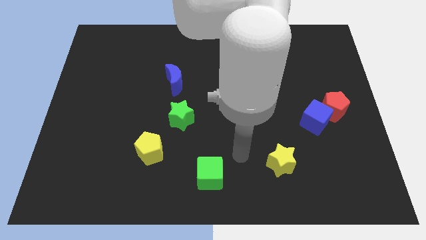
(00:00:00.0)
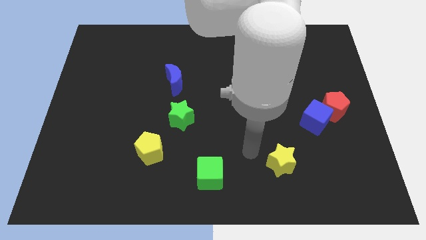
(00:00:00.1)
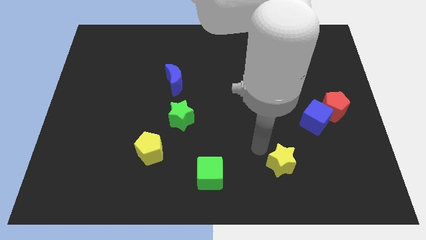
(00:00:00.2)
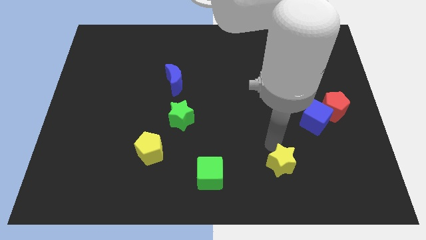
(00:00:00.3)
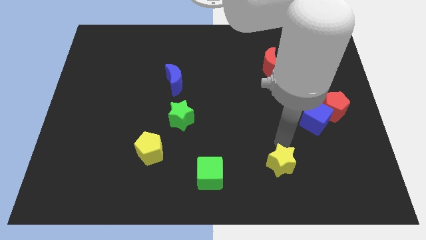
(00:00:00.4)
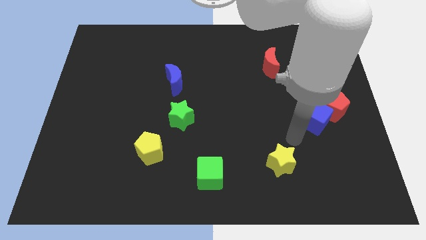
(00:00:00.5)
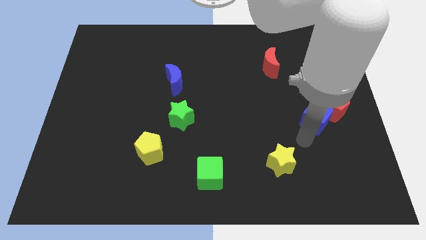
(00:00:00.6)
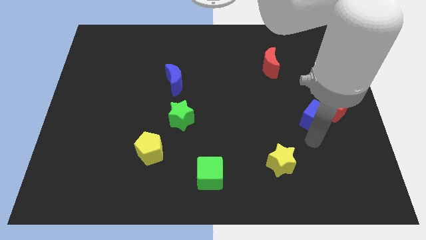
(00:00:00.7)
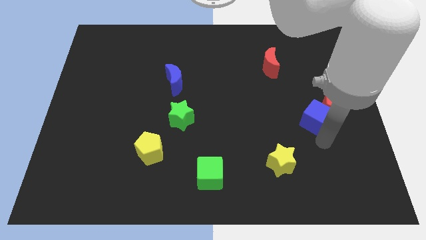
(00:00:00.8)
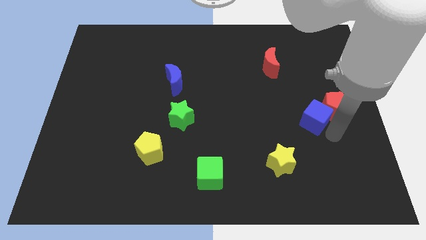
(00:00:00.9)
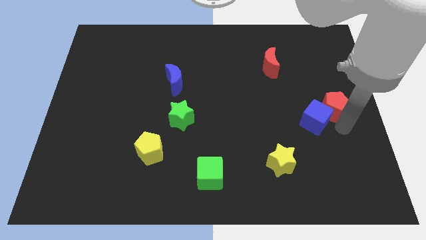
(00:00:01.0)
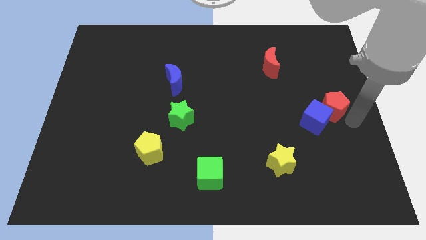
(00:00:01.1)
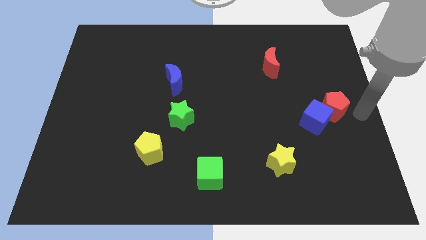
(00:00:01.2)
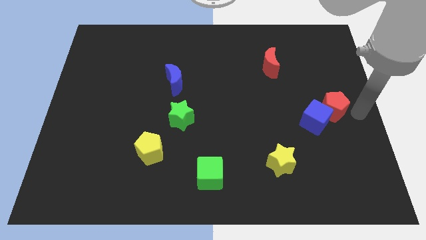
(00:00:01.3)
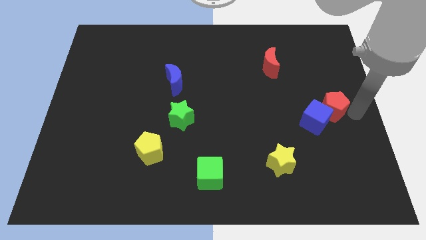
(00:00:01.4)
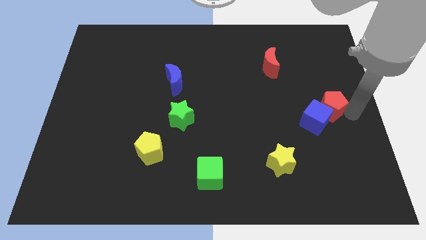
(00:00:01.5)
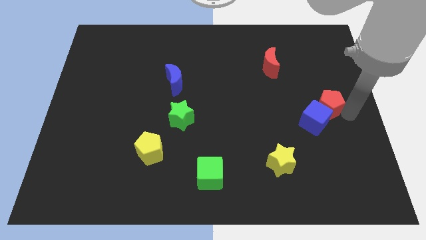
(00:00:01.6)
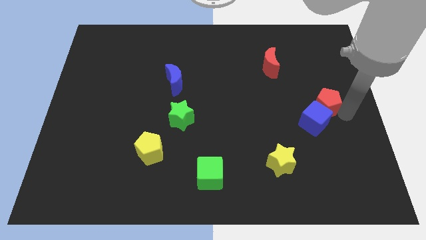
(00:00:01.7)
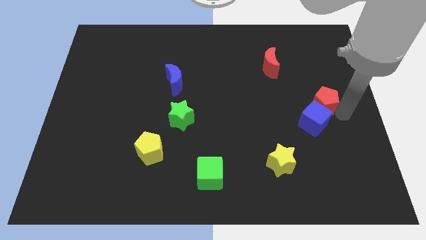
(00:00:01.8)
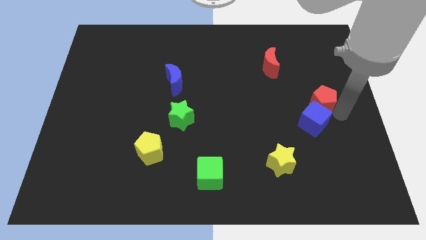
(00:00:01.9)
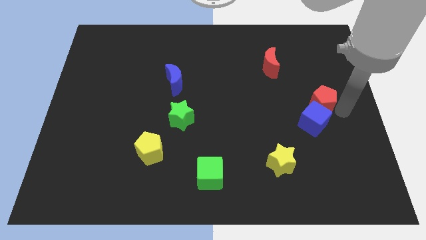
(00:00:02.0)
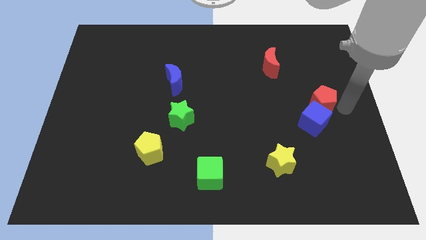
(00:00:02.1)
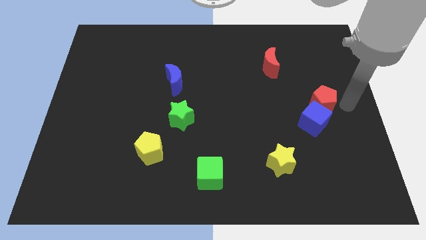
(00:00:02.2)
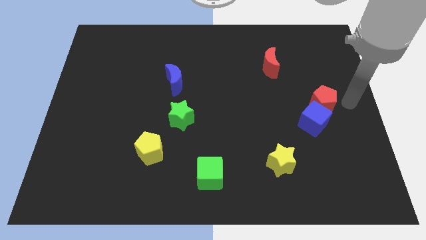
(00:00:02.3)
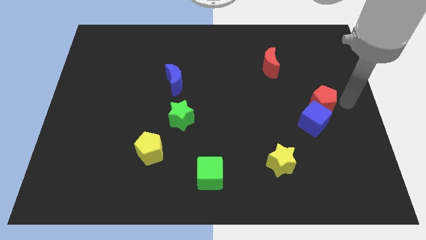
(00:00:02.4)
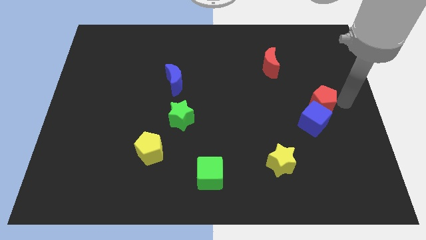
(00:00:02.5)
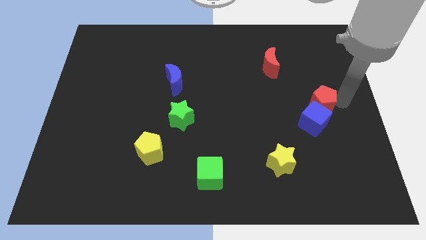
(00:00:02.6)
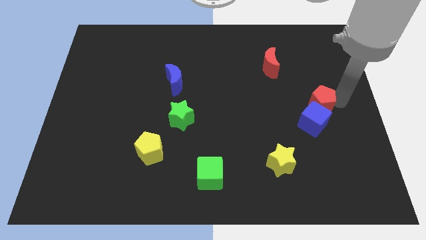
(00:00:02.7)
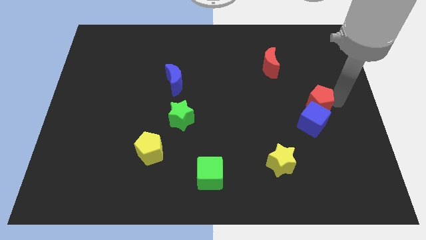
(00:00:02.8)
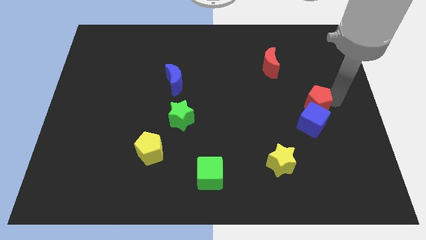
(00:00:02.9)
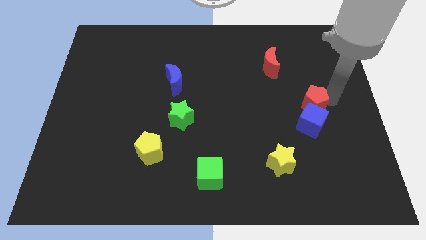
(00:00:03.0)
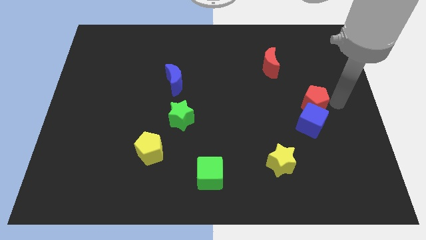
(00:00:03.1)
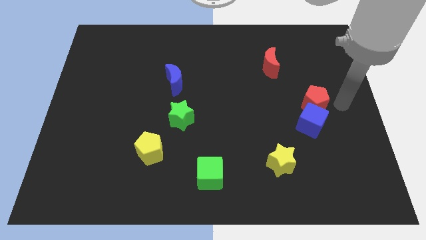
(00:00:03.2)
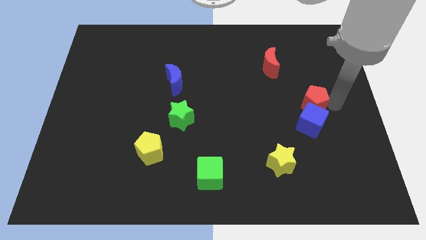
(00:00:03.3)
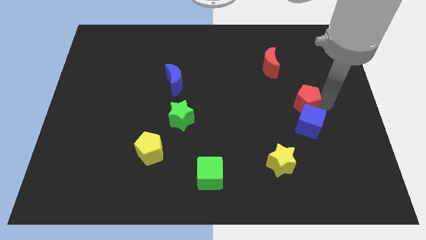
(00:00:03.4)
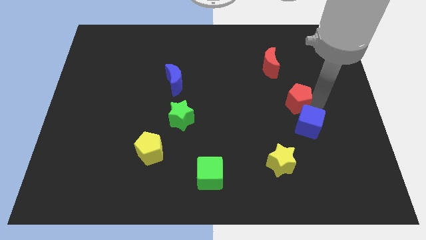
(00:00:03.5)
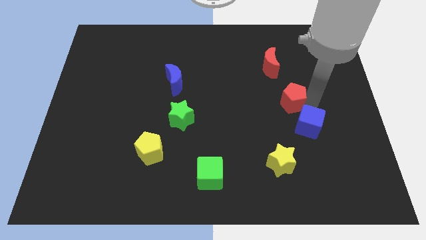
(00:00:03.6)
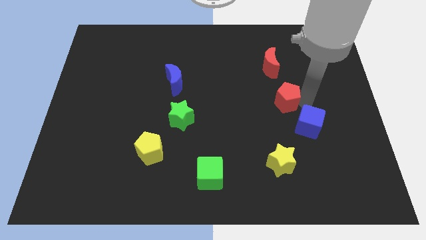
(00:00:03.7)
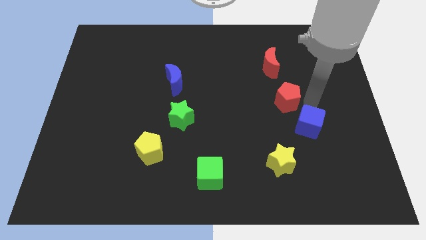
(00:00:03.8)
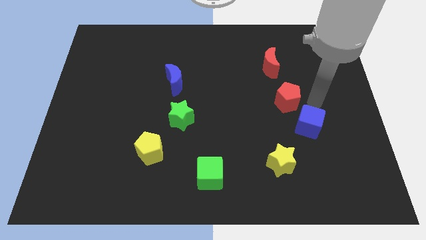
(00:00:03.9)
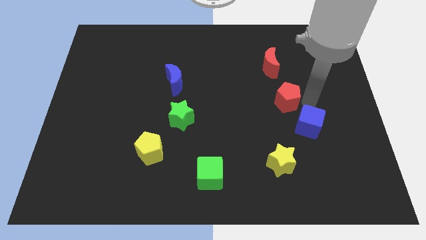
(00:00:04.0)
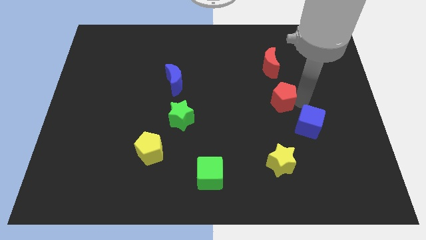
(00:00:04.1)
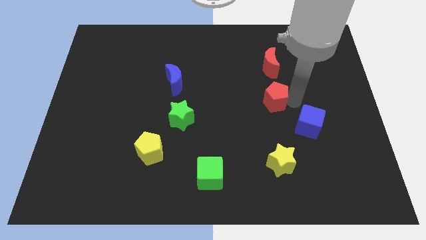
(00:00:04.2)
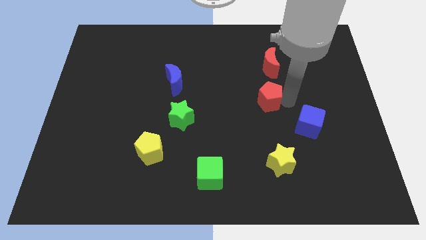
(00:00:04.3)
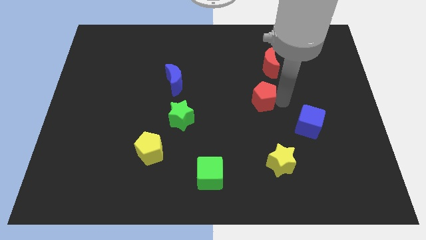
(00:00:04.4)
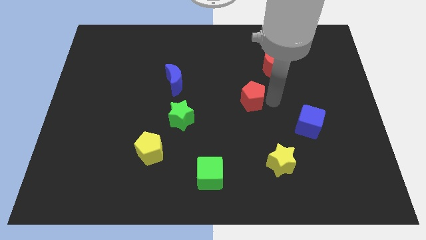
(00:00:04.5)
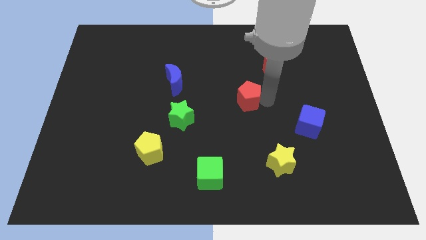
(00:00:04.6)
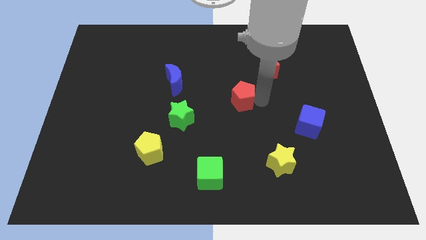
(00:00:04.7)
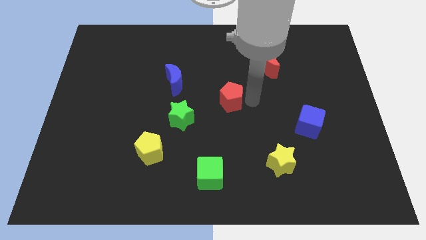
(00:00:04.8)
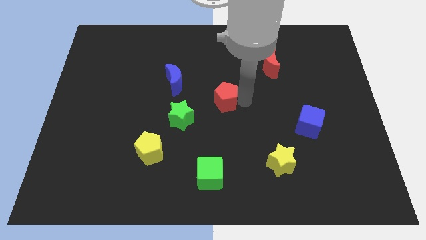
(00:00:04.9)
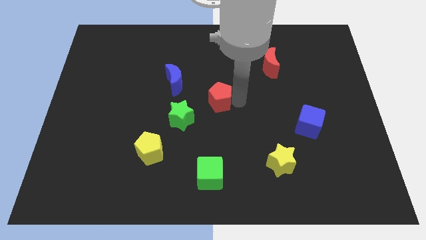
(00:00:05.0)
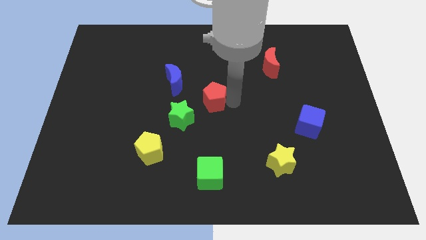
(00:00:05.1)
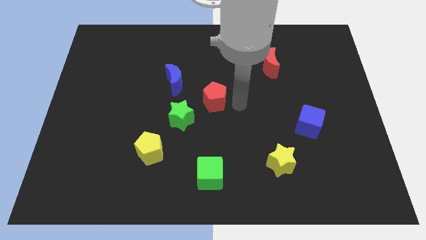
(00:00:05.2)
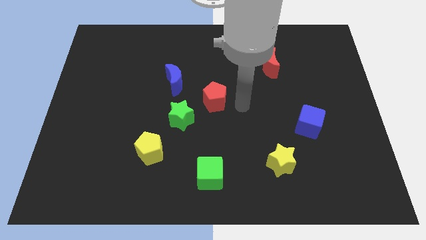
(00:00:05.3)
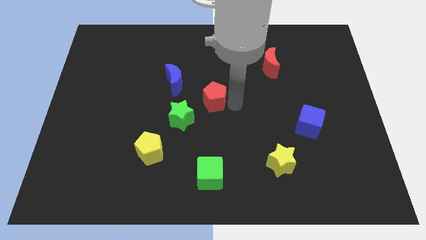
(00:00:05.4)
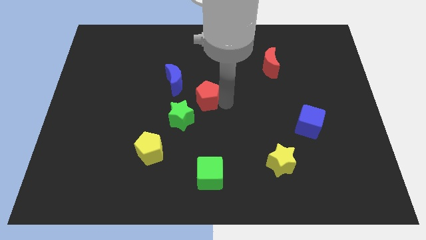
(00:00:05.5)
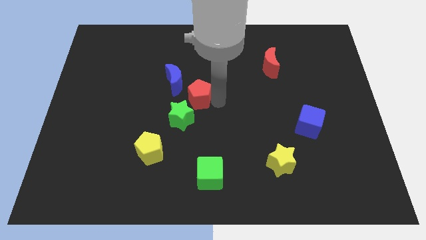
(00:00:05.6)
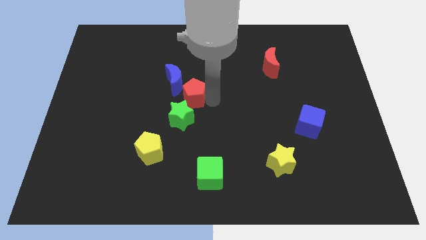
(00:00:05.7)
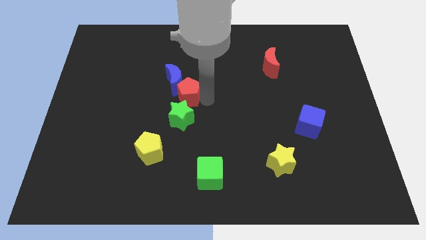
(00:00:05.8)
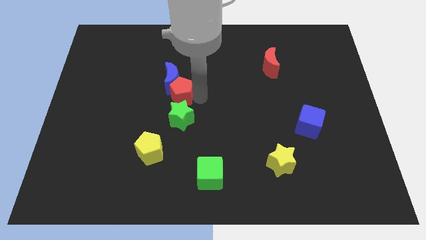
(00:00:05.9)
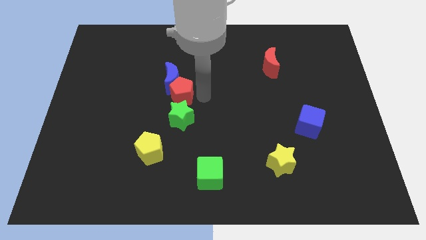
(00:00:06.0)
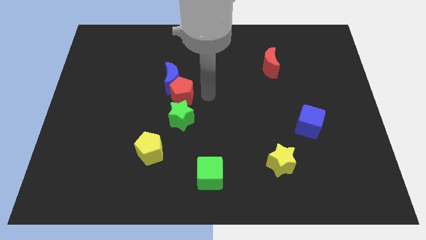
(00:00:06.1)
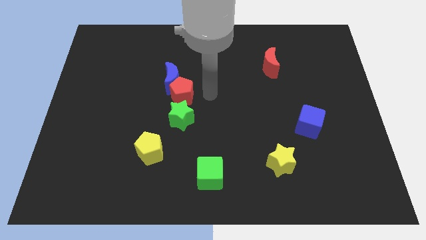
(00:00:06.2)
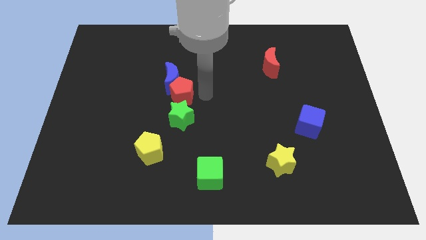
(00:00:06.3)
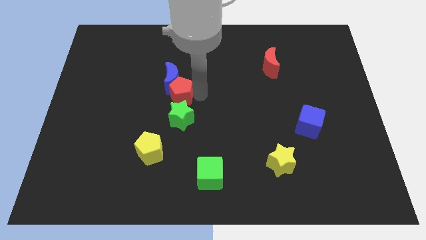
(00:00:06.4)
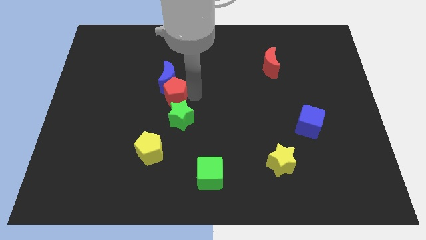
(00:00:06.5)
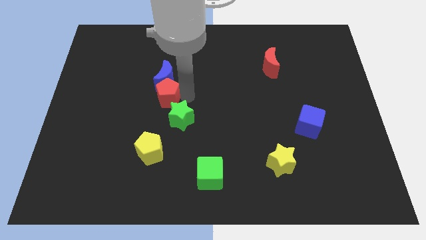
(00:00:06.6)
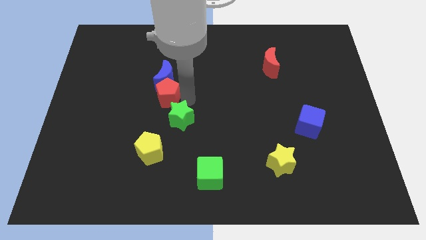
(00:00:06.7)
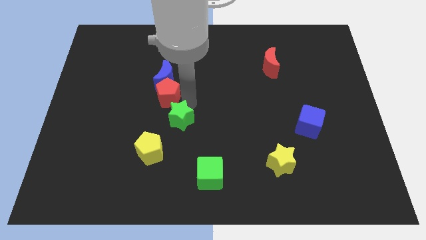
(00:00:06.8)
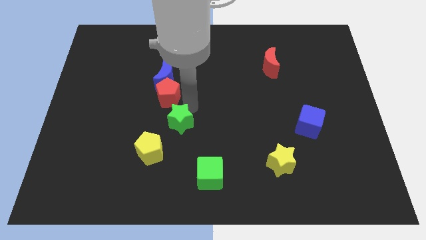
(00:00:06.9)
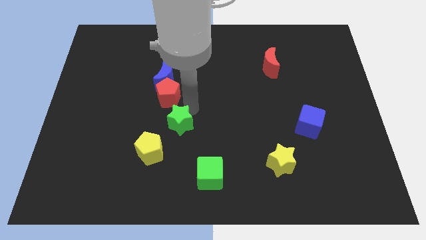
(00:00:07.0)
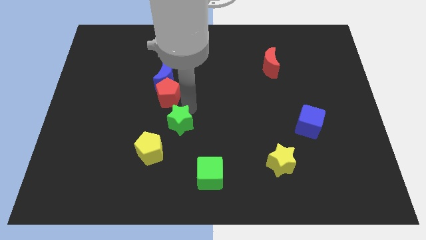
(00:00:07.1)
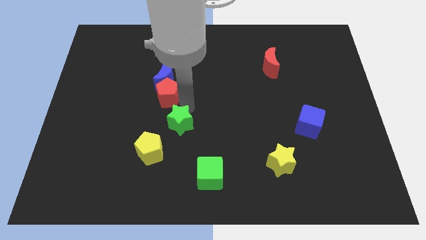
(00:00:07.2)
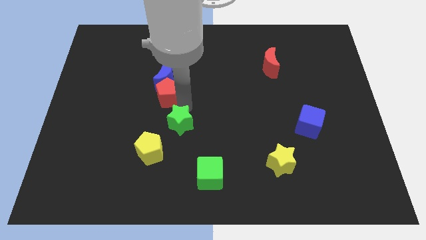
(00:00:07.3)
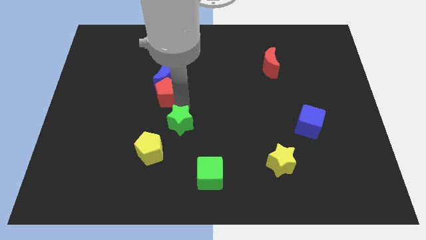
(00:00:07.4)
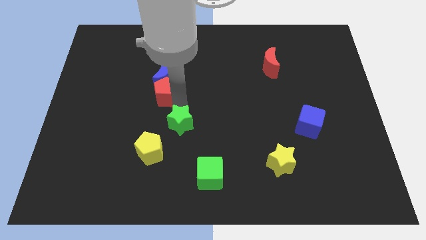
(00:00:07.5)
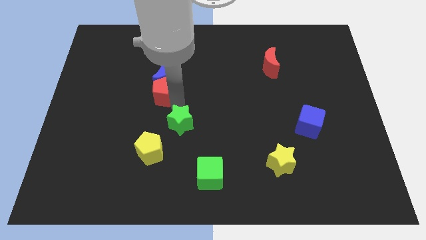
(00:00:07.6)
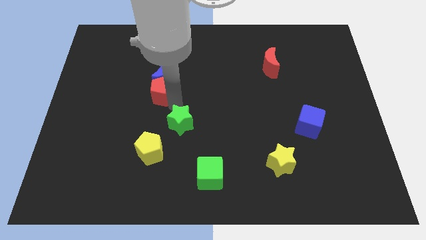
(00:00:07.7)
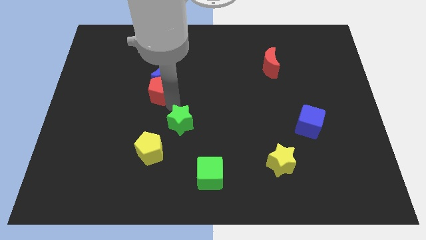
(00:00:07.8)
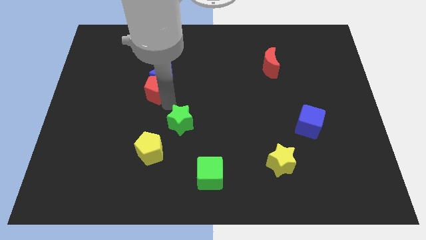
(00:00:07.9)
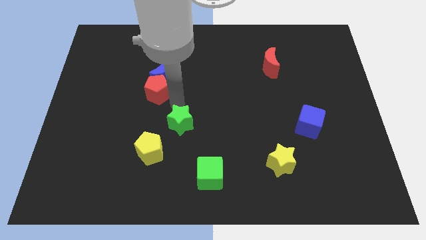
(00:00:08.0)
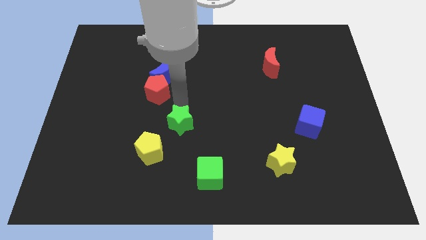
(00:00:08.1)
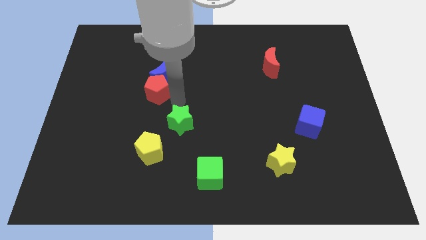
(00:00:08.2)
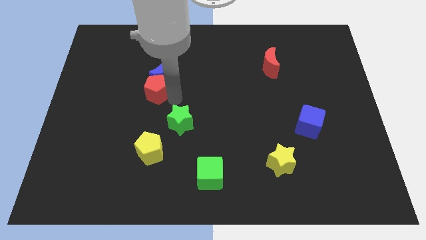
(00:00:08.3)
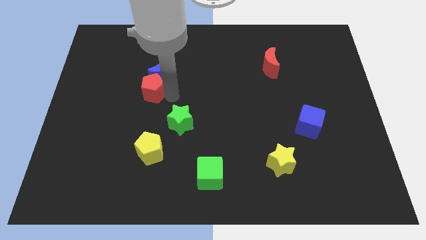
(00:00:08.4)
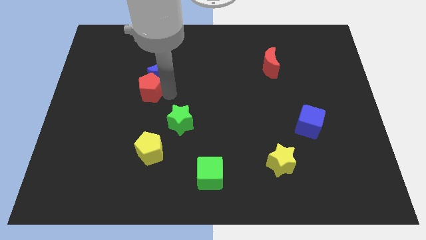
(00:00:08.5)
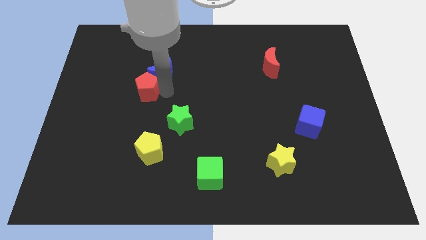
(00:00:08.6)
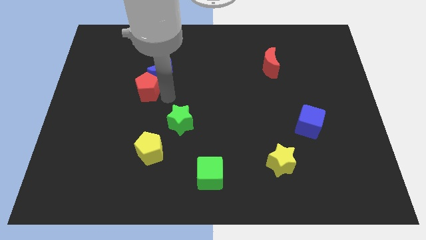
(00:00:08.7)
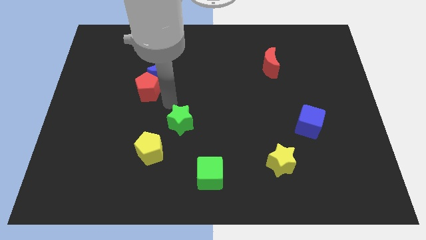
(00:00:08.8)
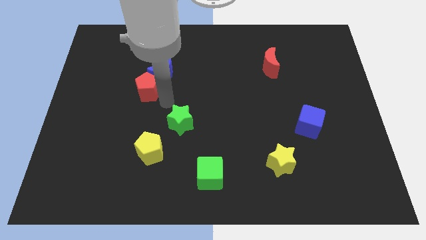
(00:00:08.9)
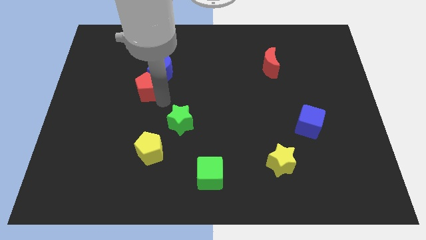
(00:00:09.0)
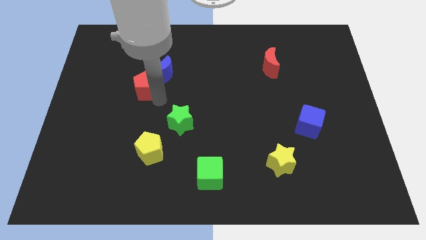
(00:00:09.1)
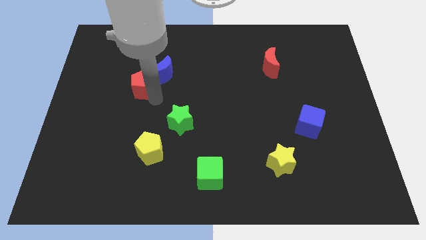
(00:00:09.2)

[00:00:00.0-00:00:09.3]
push the red pentagon left of the blue moon
